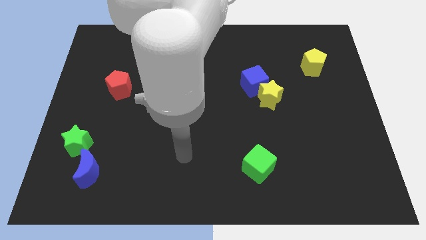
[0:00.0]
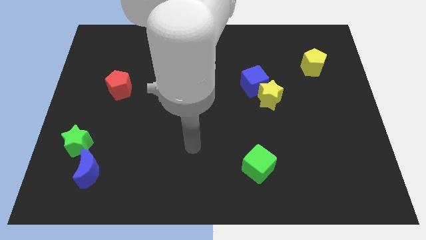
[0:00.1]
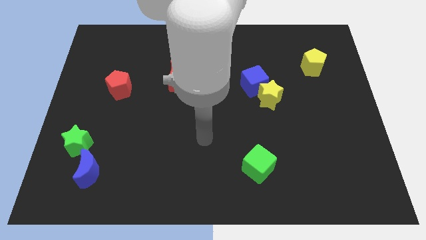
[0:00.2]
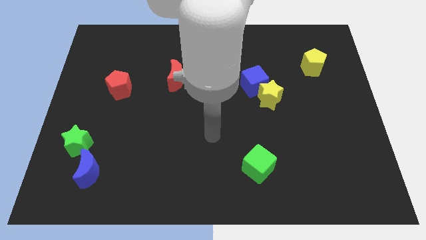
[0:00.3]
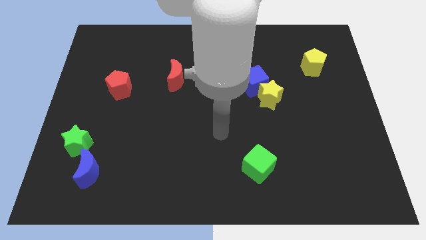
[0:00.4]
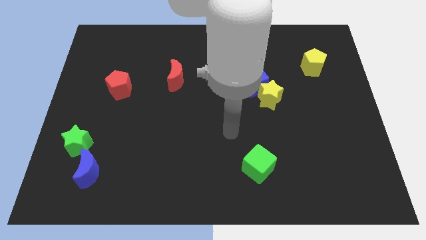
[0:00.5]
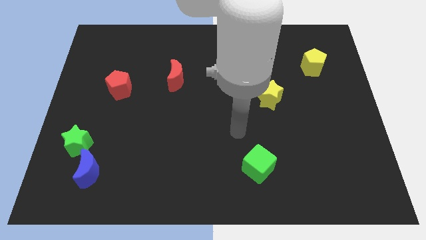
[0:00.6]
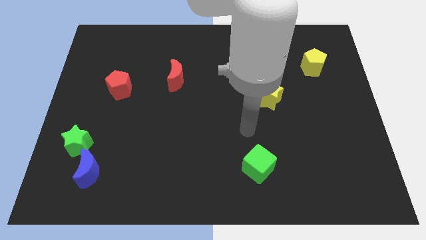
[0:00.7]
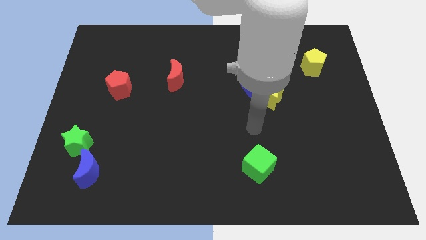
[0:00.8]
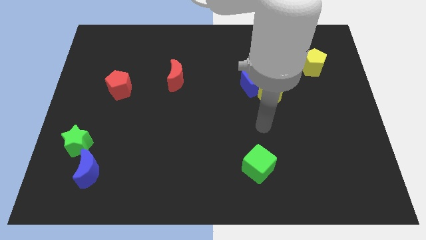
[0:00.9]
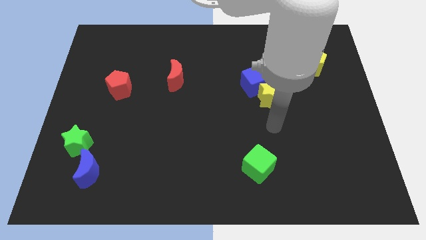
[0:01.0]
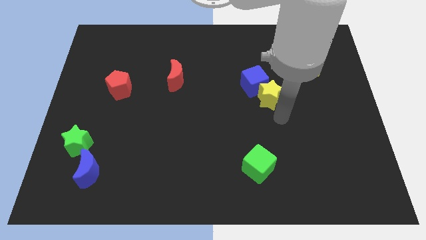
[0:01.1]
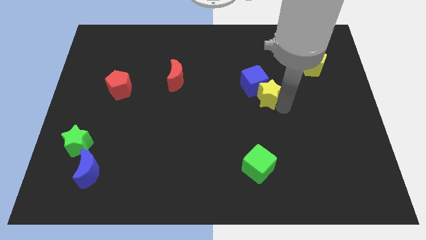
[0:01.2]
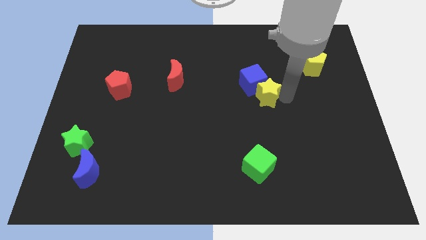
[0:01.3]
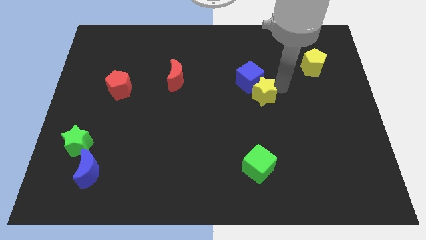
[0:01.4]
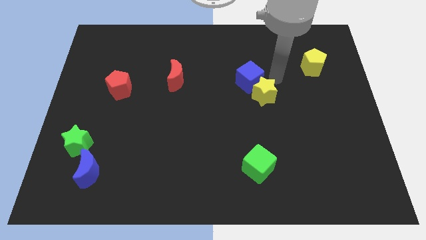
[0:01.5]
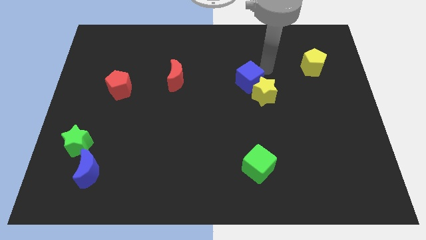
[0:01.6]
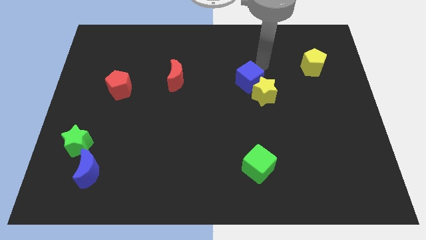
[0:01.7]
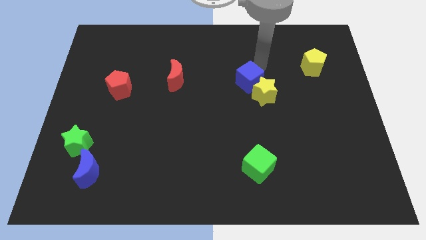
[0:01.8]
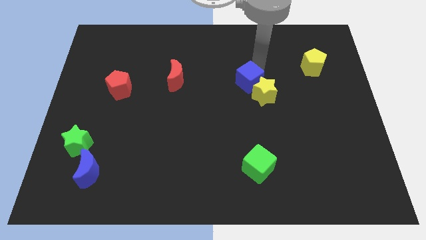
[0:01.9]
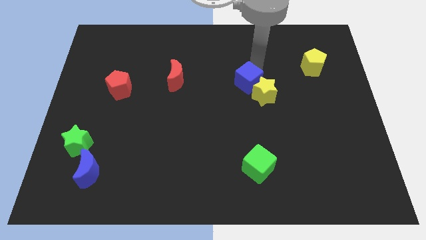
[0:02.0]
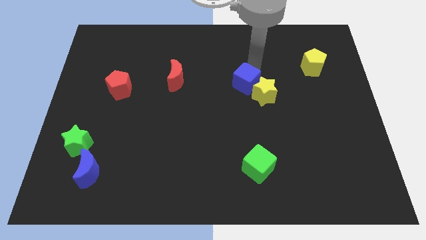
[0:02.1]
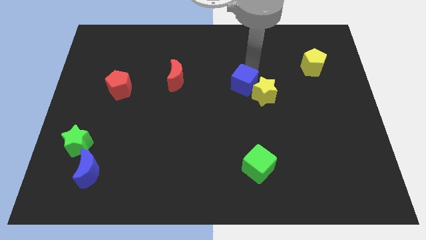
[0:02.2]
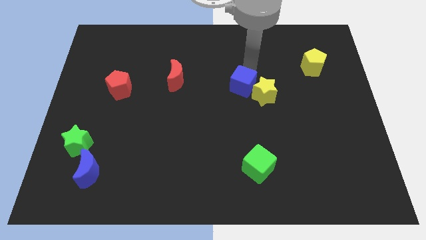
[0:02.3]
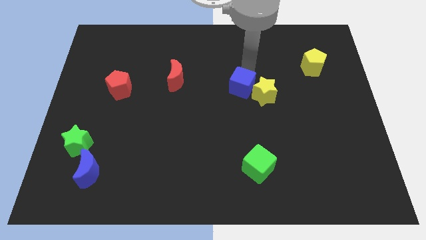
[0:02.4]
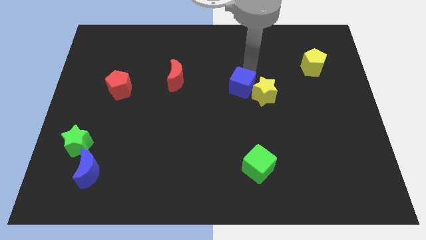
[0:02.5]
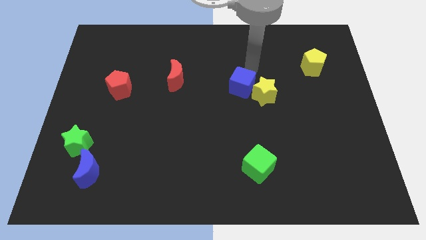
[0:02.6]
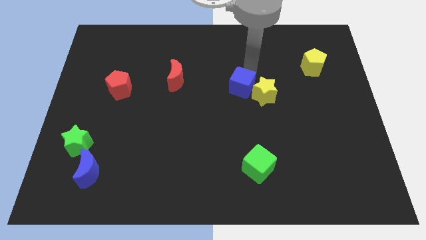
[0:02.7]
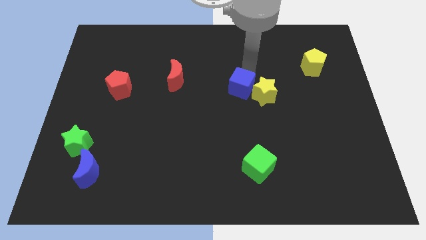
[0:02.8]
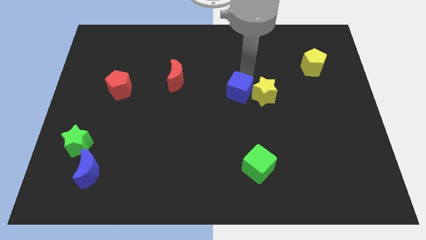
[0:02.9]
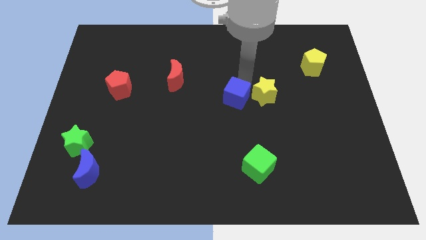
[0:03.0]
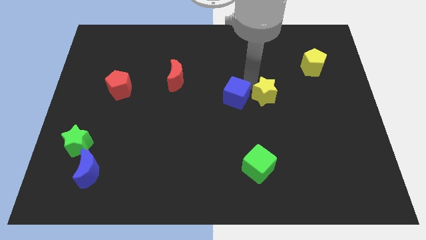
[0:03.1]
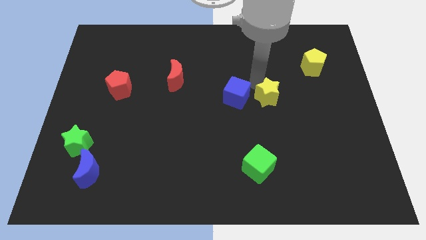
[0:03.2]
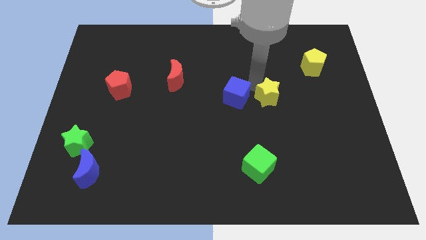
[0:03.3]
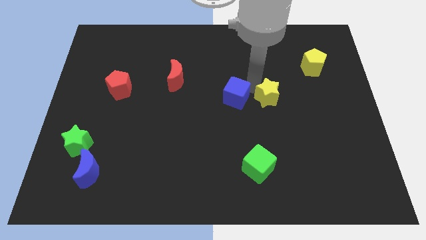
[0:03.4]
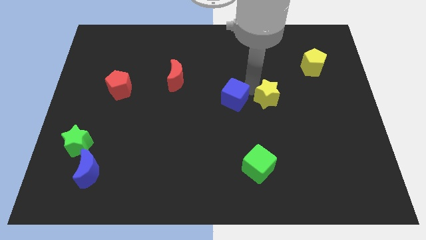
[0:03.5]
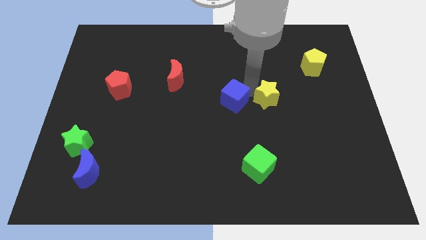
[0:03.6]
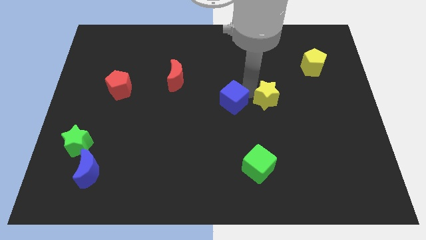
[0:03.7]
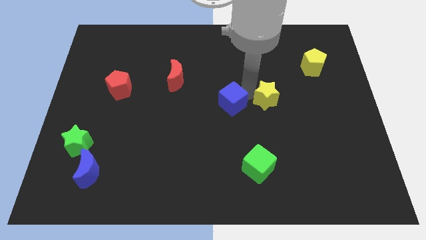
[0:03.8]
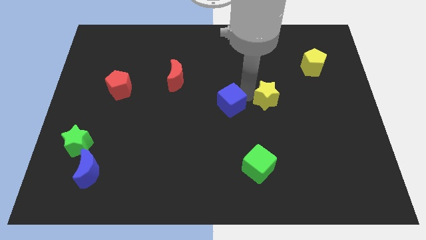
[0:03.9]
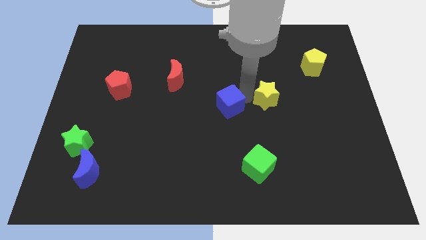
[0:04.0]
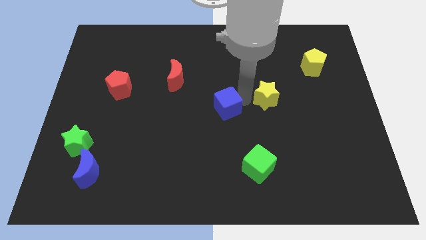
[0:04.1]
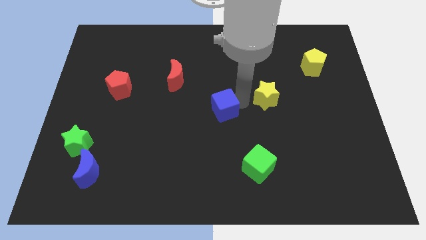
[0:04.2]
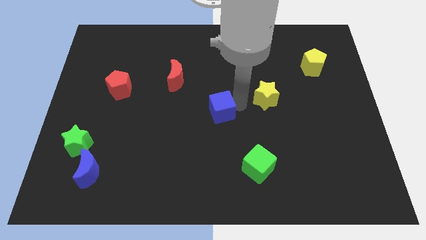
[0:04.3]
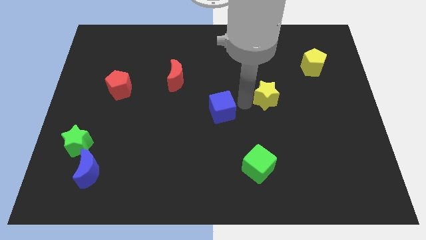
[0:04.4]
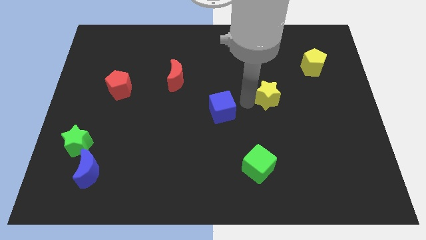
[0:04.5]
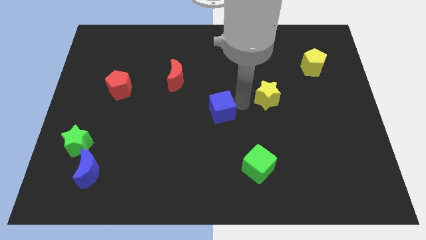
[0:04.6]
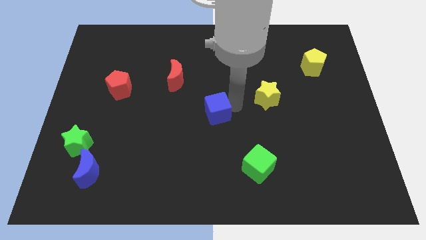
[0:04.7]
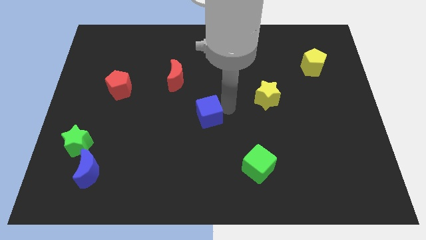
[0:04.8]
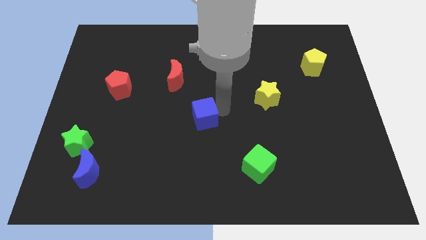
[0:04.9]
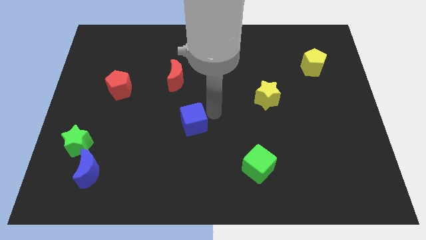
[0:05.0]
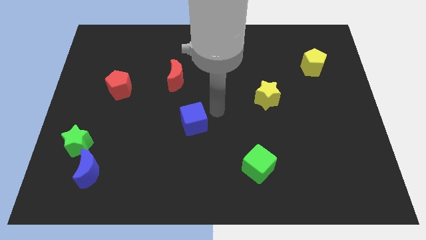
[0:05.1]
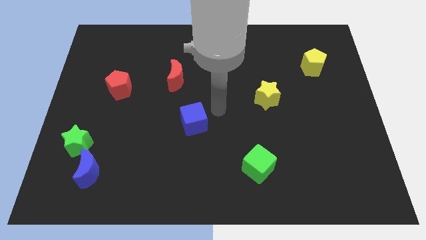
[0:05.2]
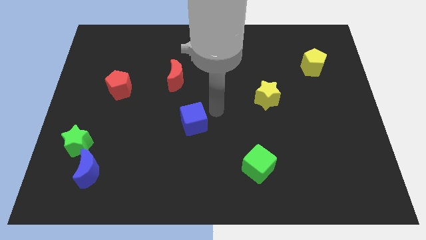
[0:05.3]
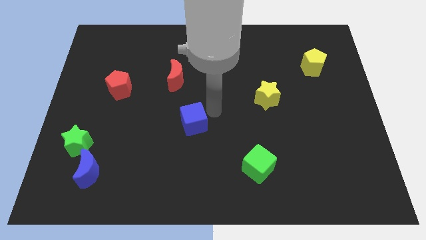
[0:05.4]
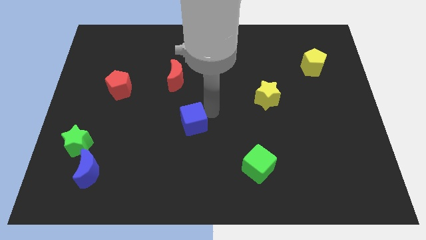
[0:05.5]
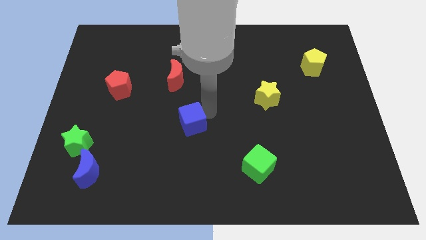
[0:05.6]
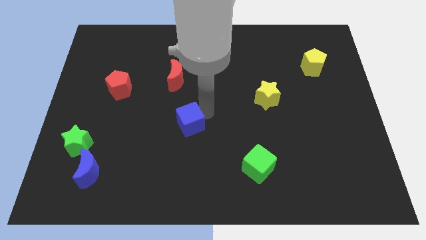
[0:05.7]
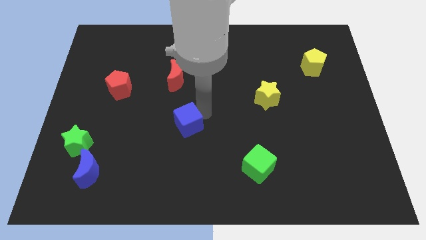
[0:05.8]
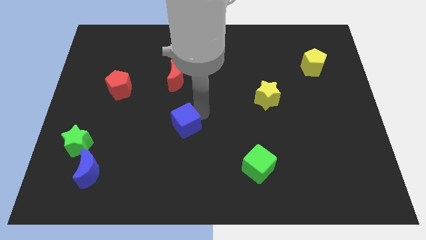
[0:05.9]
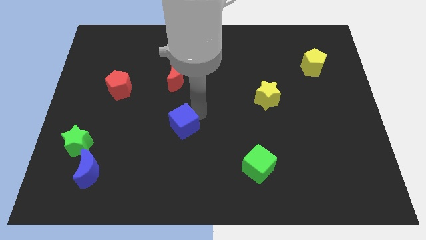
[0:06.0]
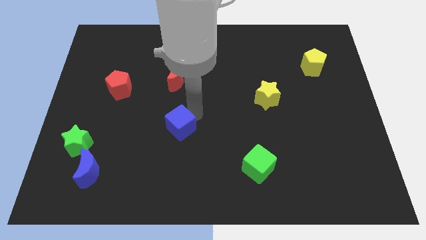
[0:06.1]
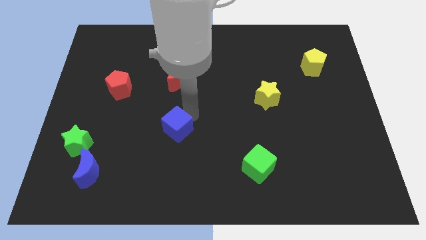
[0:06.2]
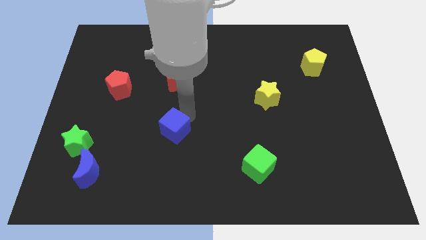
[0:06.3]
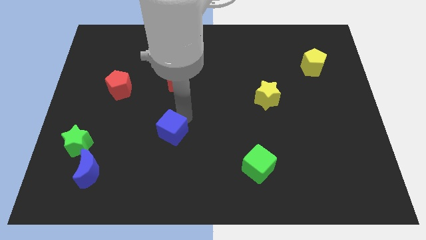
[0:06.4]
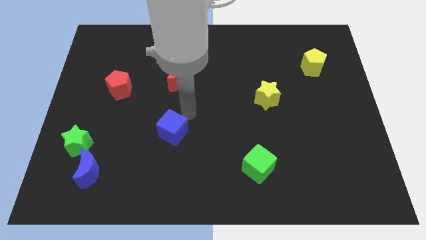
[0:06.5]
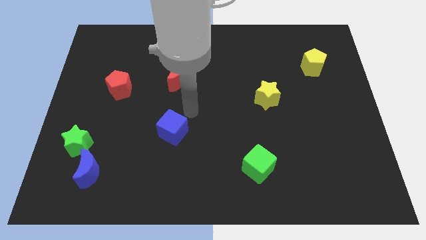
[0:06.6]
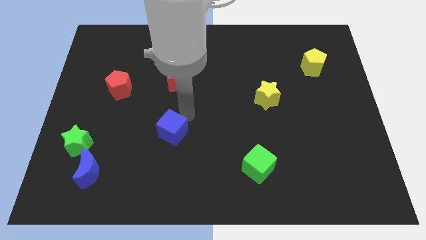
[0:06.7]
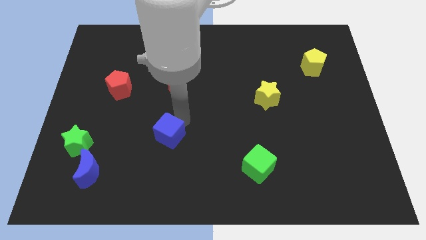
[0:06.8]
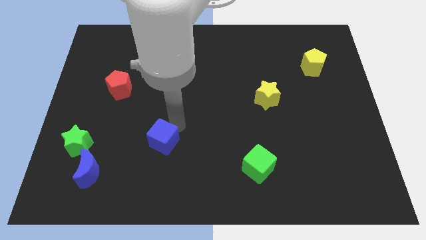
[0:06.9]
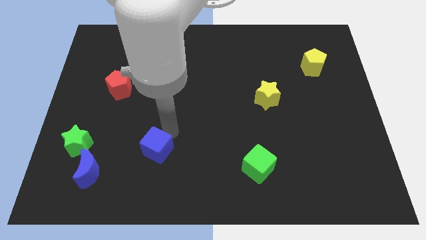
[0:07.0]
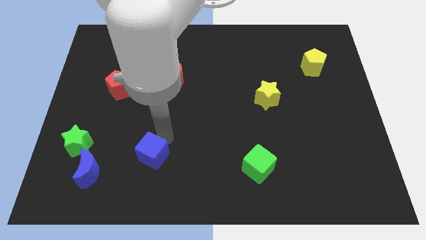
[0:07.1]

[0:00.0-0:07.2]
move the blue cube to the right of the blue moon
